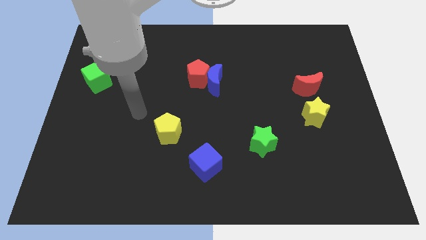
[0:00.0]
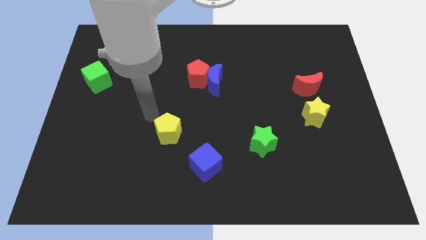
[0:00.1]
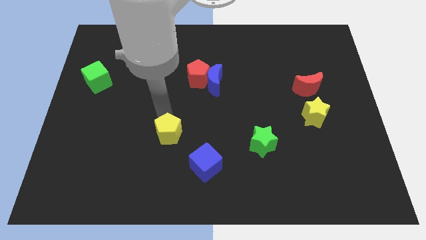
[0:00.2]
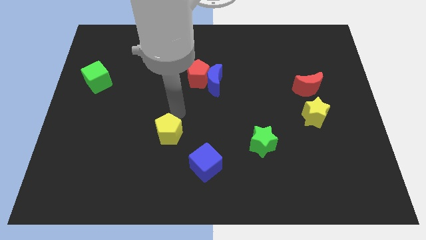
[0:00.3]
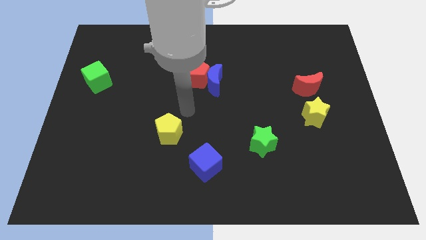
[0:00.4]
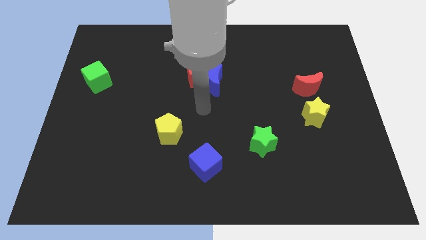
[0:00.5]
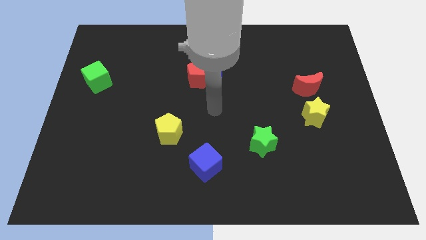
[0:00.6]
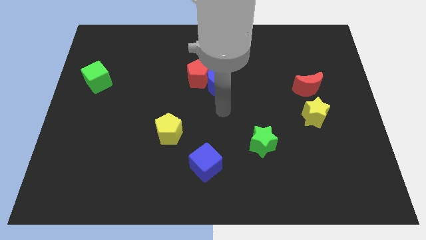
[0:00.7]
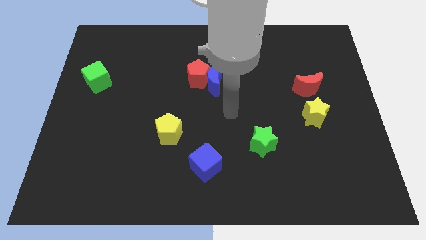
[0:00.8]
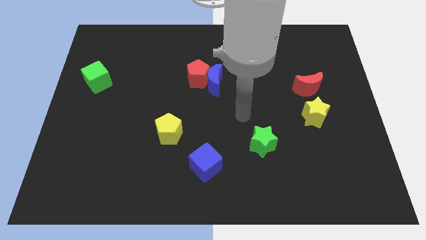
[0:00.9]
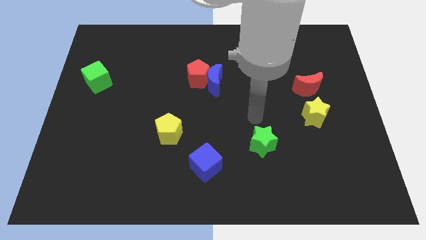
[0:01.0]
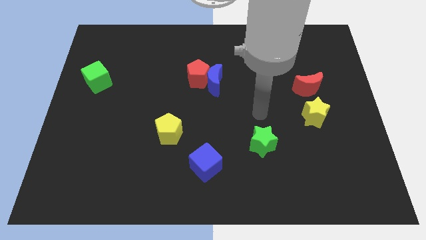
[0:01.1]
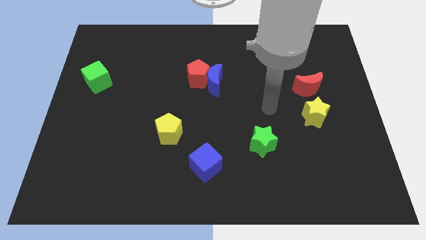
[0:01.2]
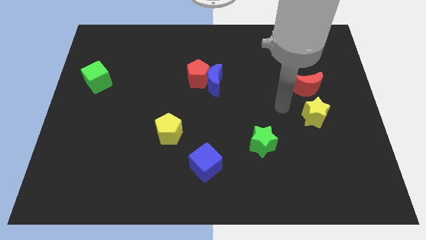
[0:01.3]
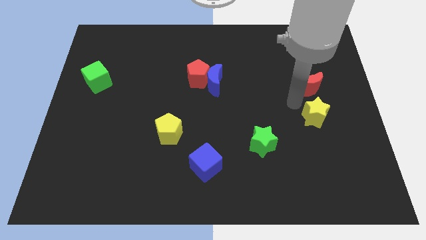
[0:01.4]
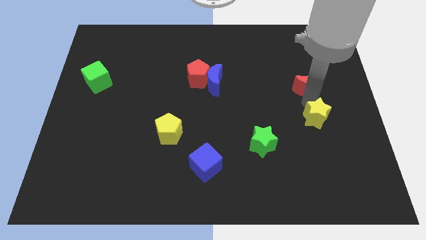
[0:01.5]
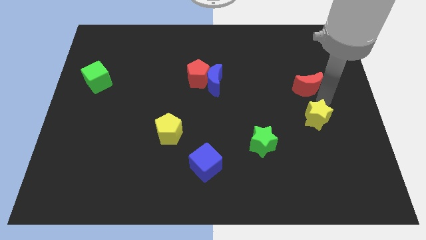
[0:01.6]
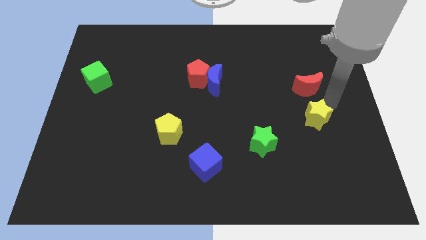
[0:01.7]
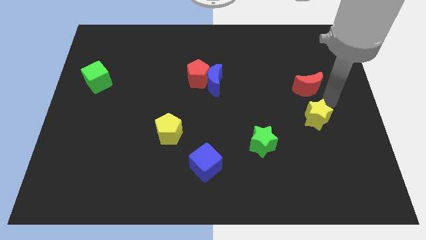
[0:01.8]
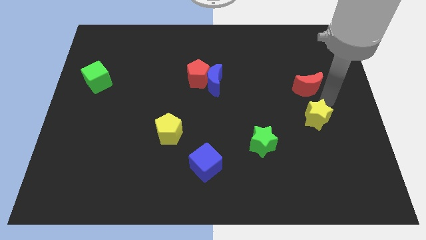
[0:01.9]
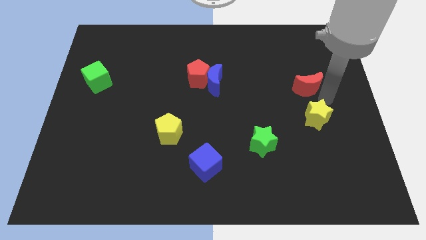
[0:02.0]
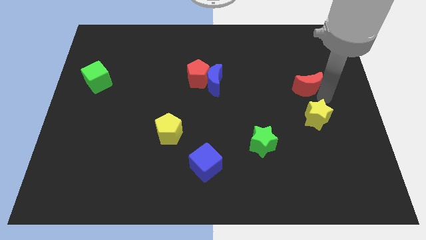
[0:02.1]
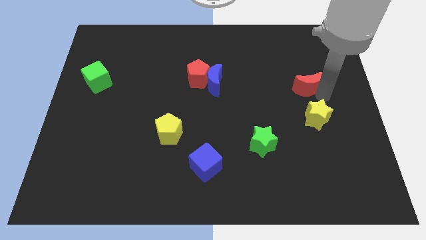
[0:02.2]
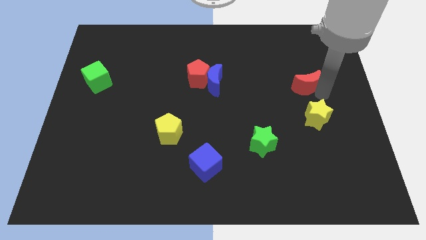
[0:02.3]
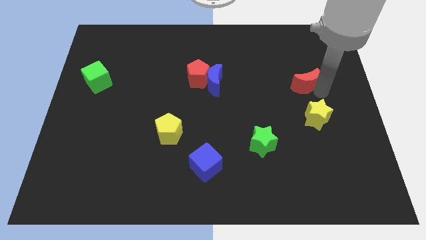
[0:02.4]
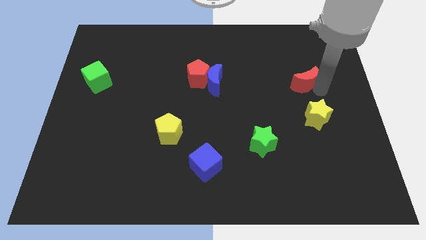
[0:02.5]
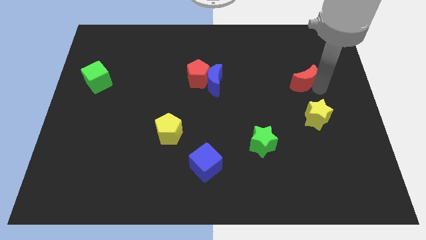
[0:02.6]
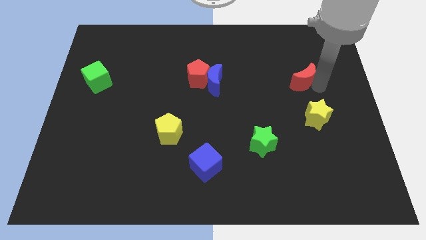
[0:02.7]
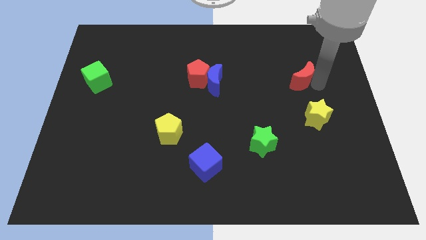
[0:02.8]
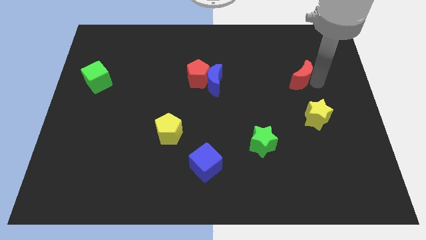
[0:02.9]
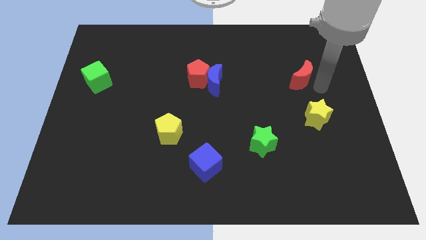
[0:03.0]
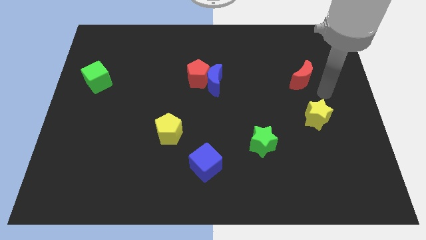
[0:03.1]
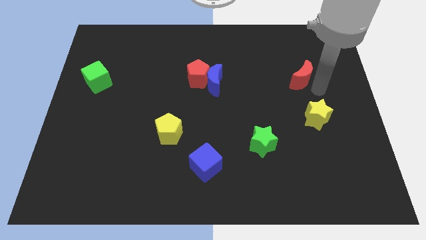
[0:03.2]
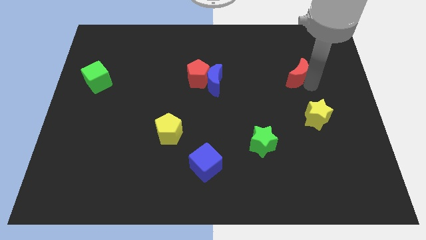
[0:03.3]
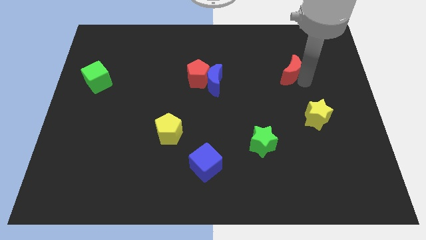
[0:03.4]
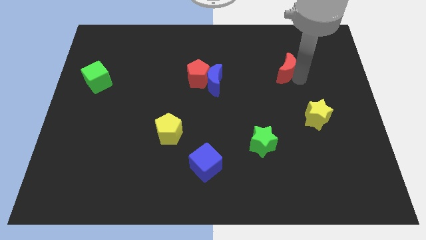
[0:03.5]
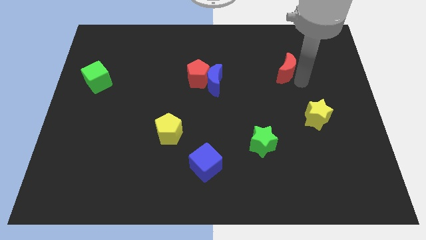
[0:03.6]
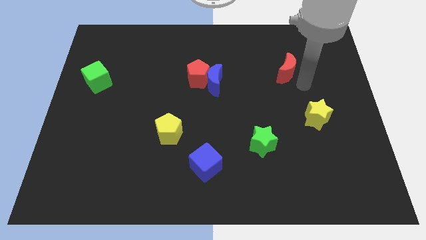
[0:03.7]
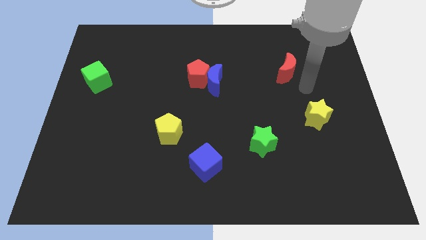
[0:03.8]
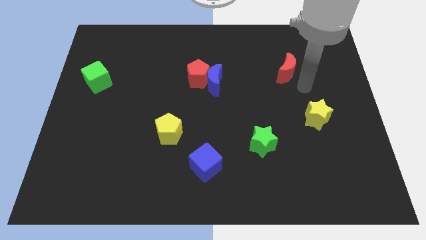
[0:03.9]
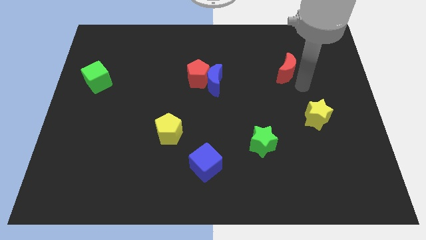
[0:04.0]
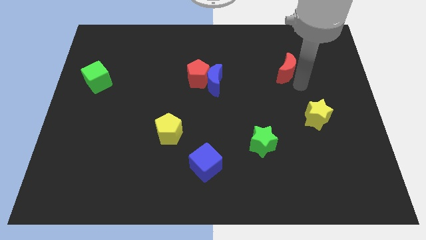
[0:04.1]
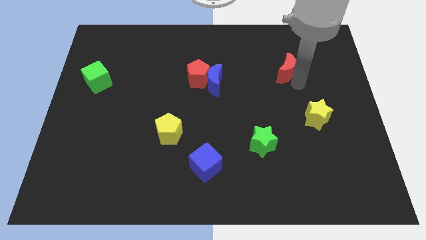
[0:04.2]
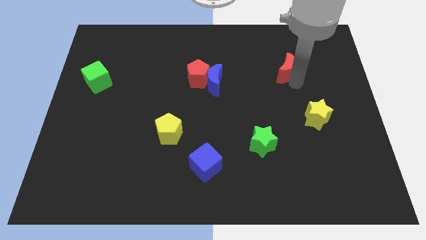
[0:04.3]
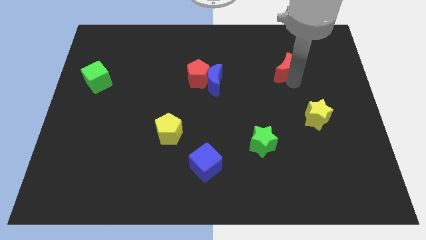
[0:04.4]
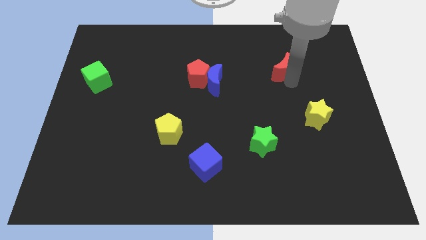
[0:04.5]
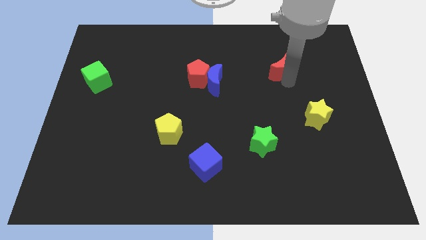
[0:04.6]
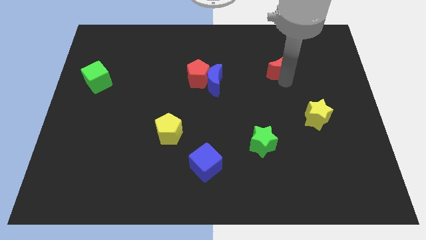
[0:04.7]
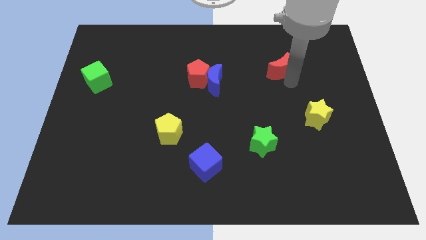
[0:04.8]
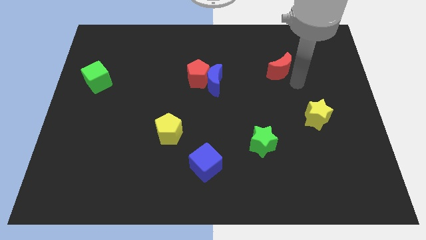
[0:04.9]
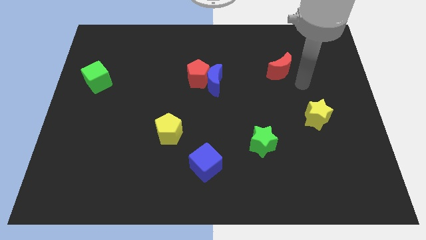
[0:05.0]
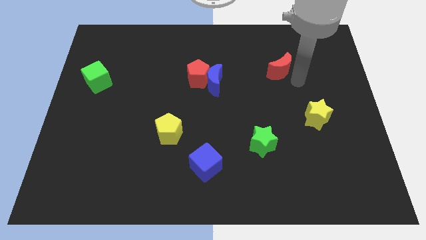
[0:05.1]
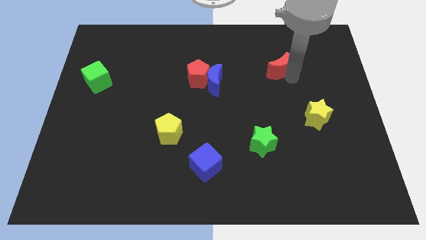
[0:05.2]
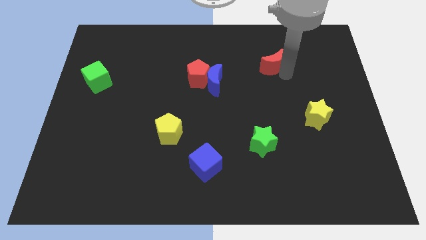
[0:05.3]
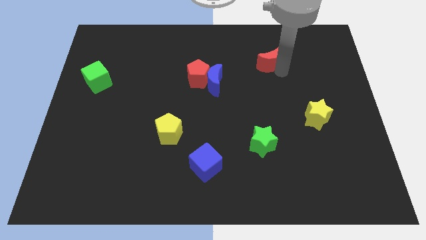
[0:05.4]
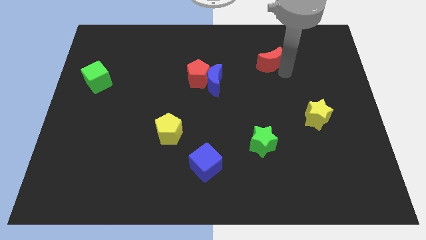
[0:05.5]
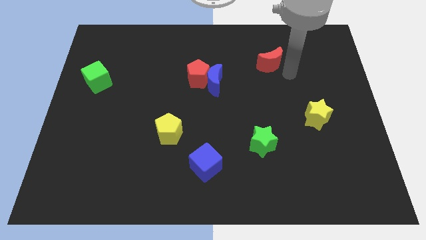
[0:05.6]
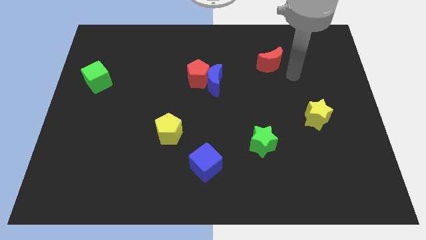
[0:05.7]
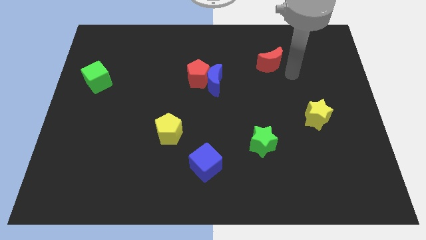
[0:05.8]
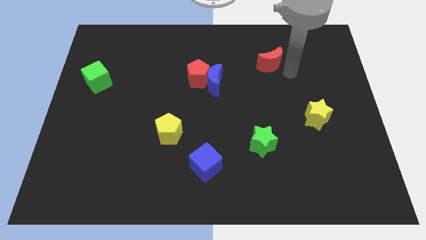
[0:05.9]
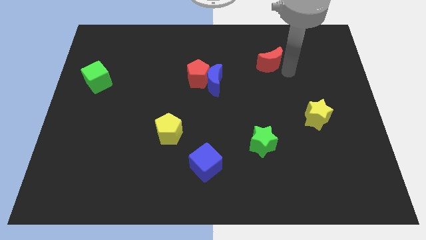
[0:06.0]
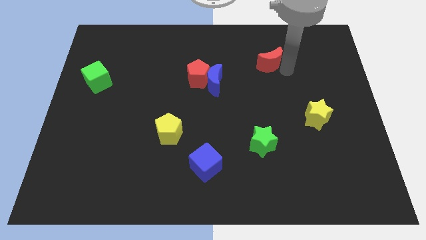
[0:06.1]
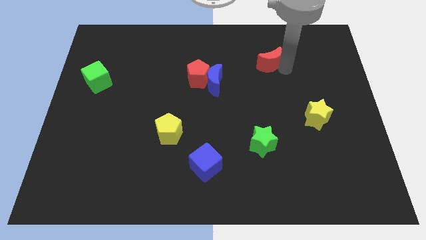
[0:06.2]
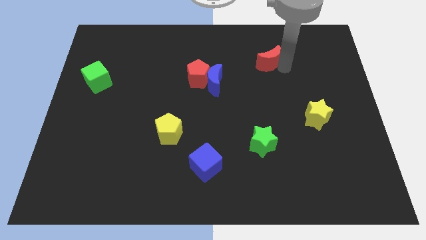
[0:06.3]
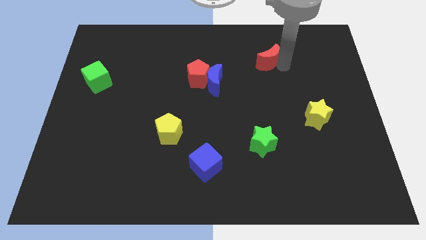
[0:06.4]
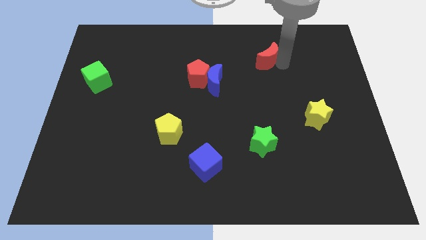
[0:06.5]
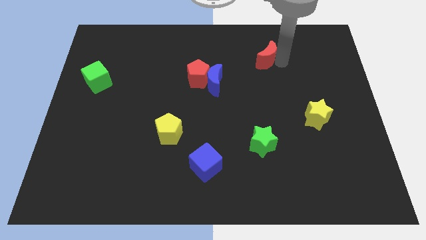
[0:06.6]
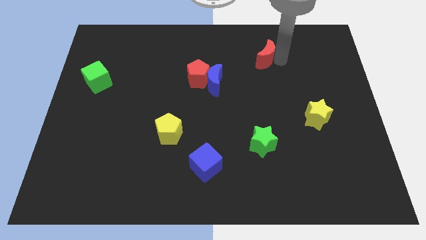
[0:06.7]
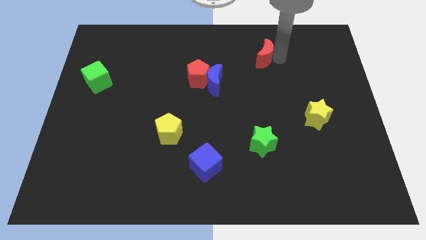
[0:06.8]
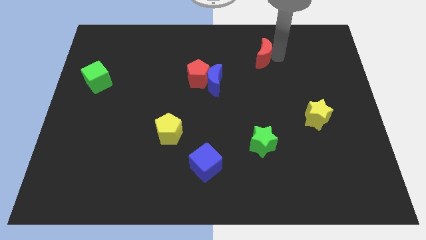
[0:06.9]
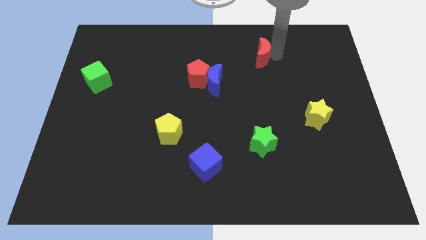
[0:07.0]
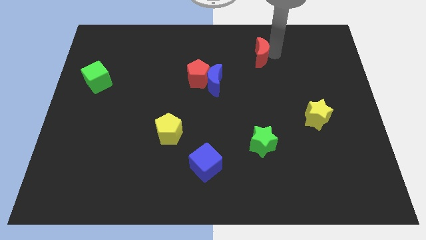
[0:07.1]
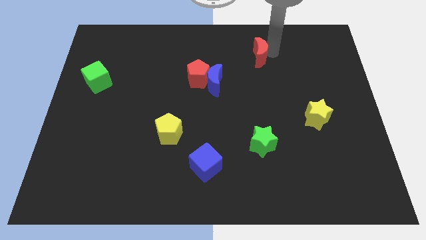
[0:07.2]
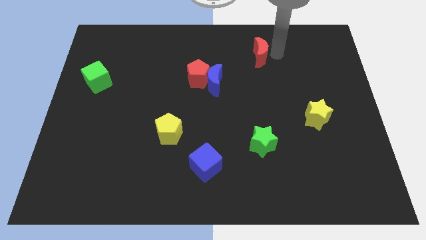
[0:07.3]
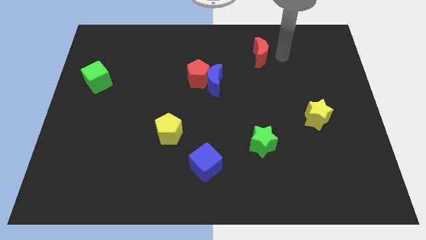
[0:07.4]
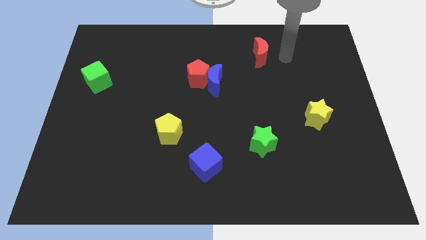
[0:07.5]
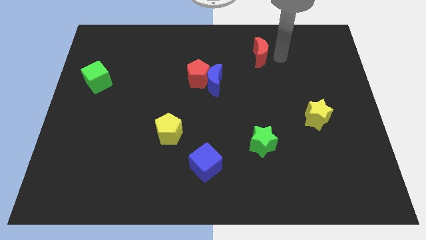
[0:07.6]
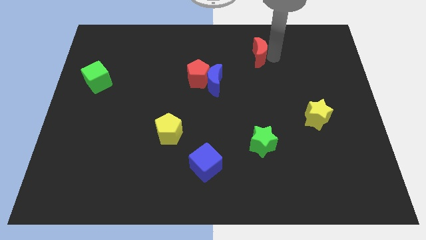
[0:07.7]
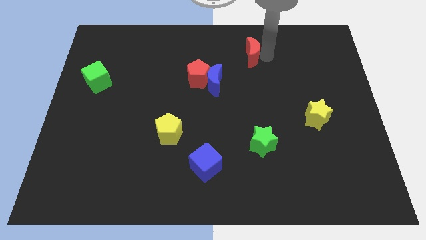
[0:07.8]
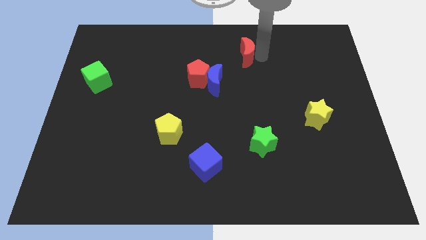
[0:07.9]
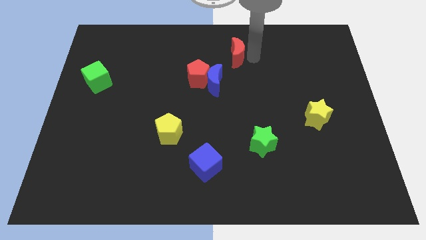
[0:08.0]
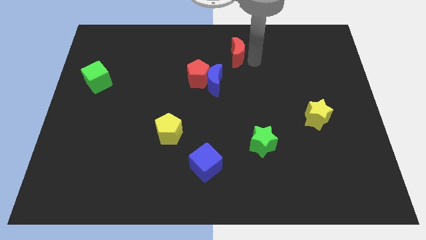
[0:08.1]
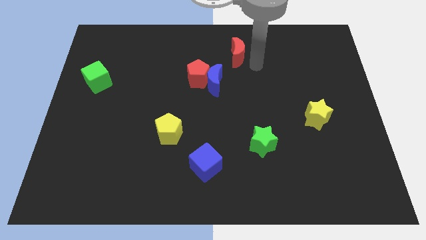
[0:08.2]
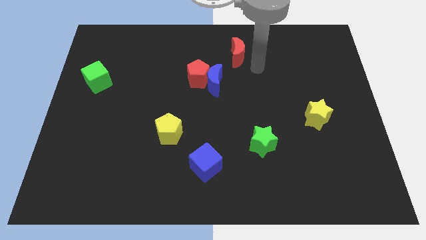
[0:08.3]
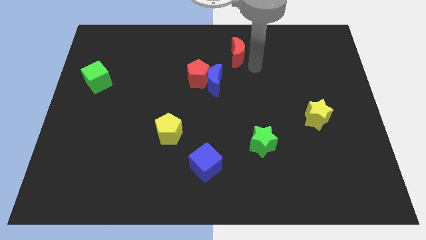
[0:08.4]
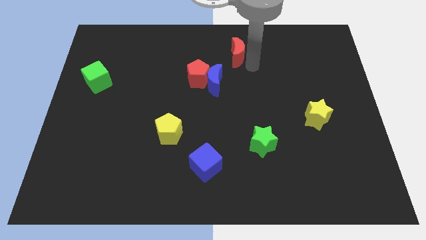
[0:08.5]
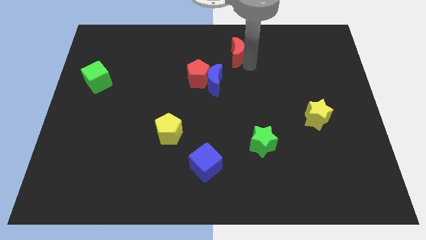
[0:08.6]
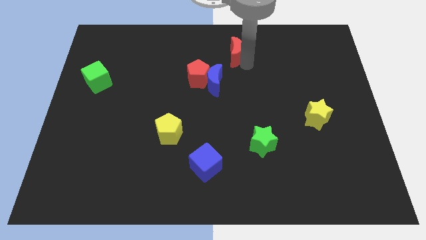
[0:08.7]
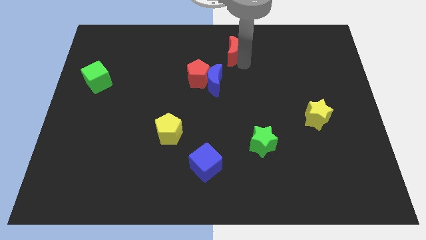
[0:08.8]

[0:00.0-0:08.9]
put the red moon to the top side
